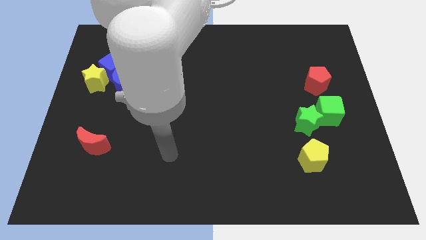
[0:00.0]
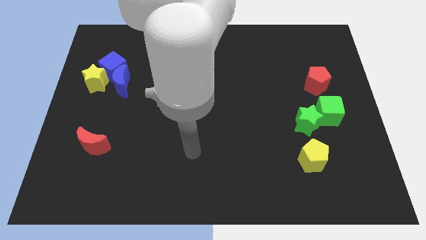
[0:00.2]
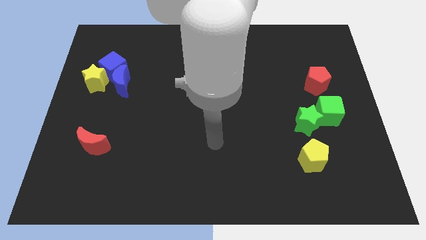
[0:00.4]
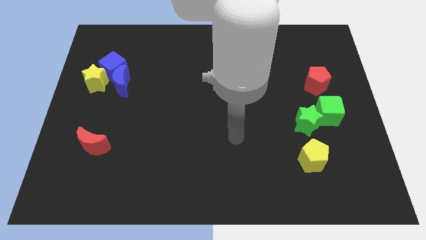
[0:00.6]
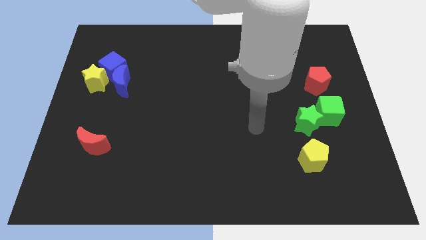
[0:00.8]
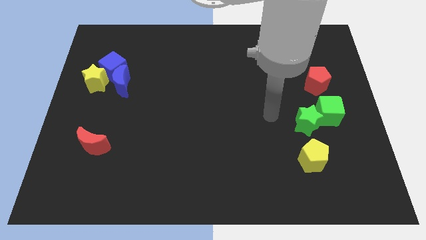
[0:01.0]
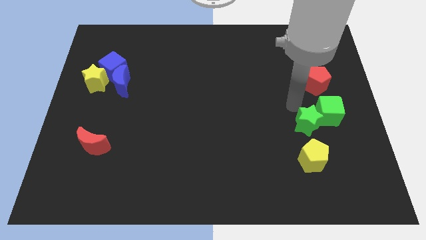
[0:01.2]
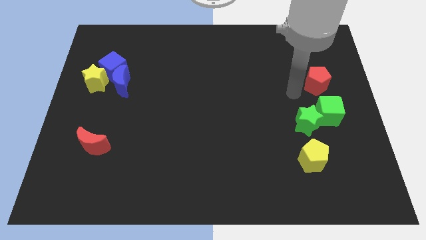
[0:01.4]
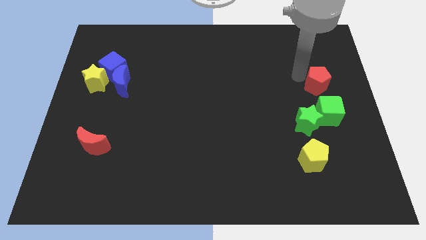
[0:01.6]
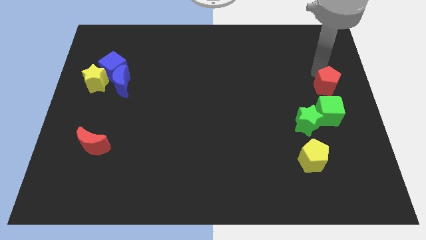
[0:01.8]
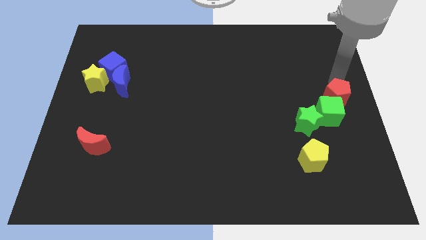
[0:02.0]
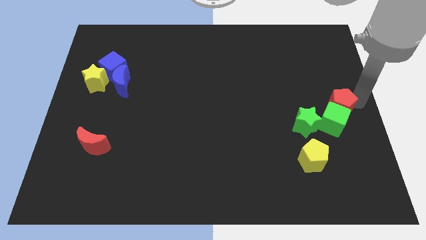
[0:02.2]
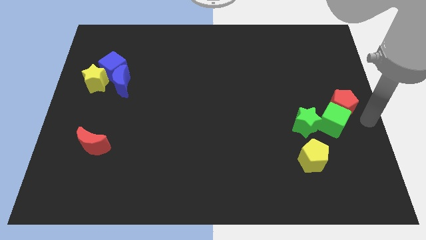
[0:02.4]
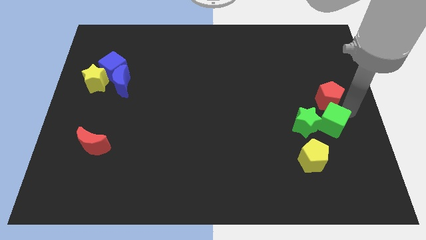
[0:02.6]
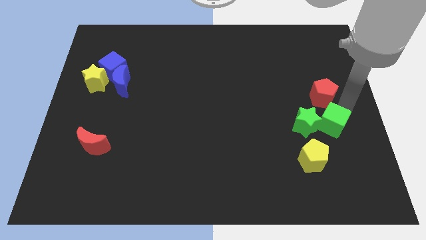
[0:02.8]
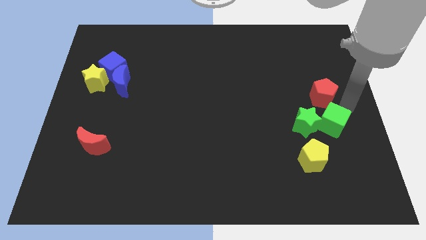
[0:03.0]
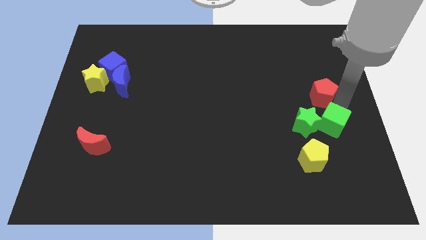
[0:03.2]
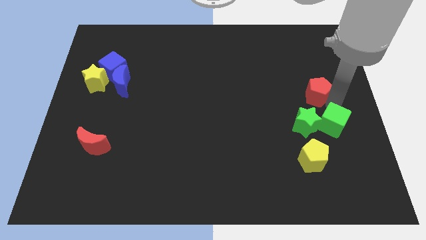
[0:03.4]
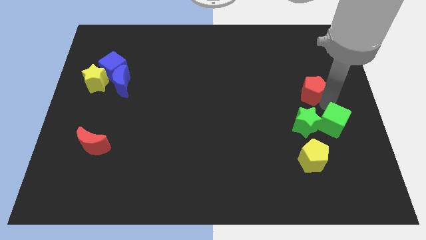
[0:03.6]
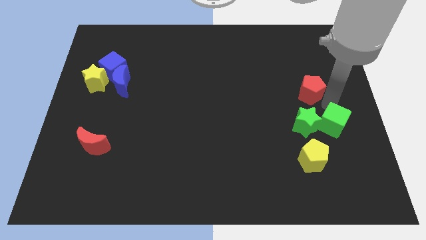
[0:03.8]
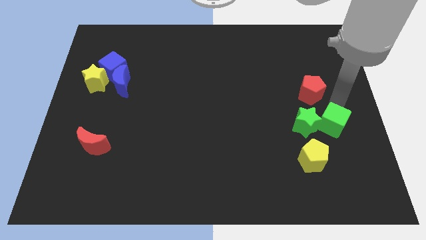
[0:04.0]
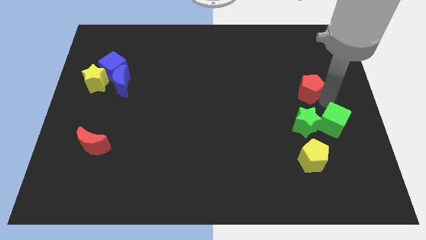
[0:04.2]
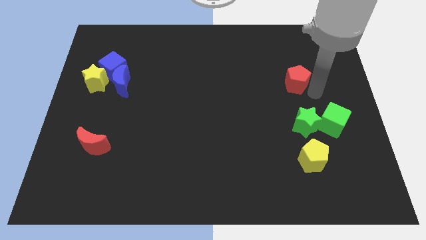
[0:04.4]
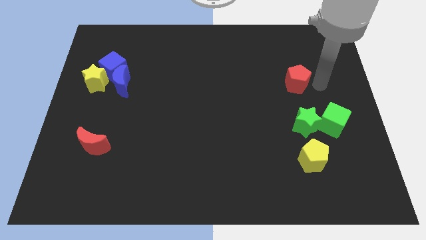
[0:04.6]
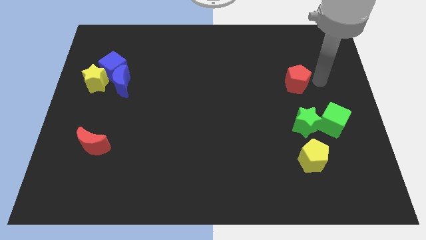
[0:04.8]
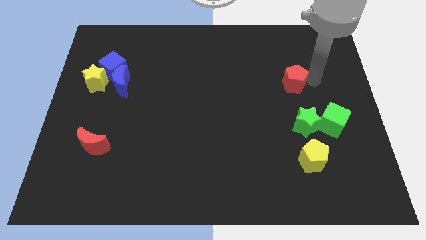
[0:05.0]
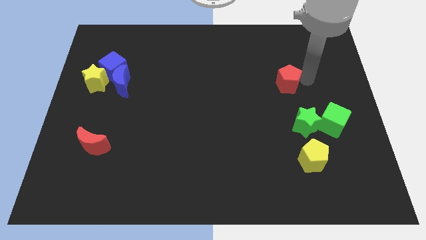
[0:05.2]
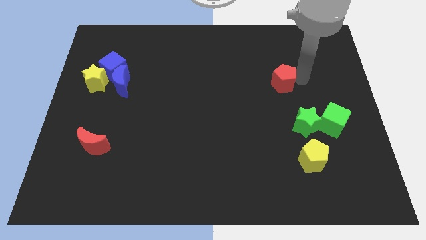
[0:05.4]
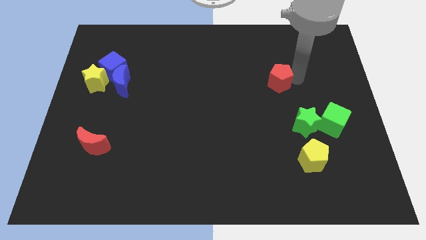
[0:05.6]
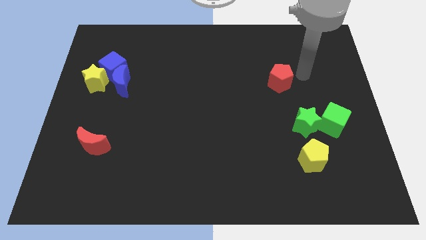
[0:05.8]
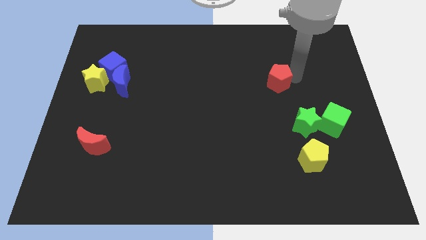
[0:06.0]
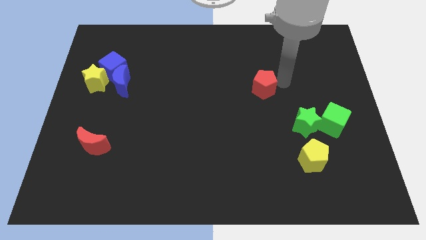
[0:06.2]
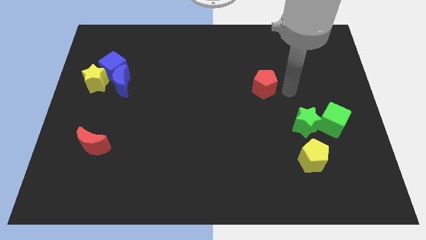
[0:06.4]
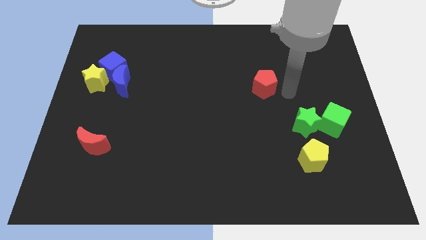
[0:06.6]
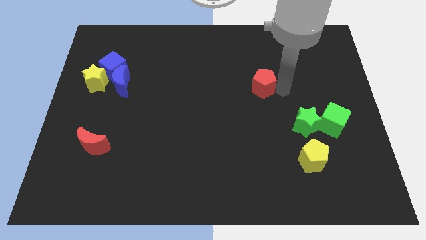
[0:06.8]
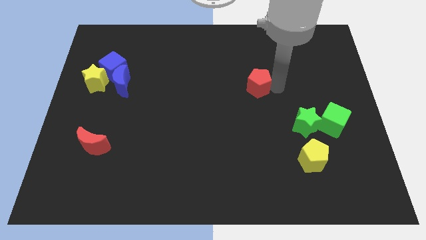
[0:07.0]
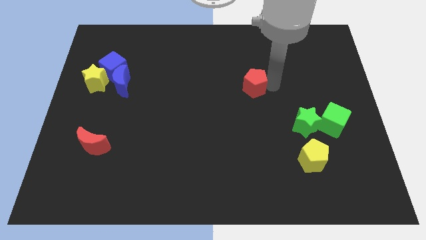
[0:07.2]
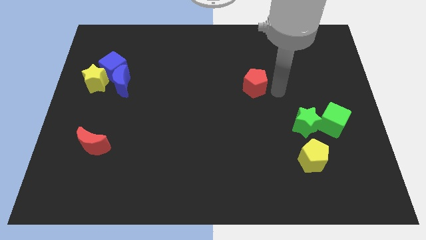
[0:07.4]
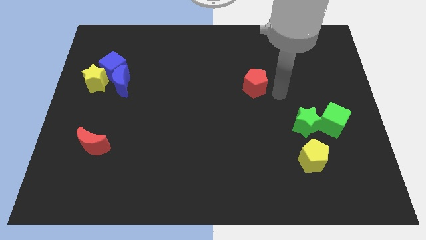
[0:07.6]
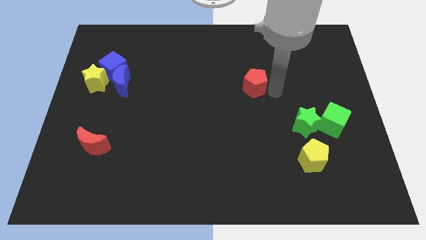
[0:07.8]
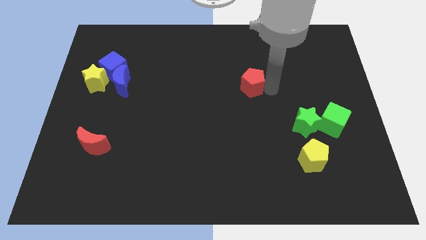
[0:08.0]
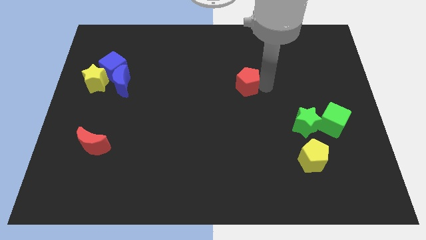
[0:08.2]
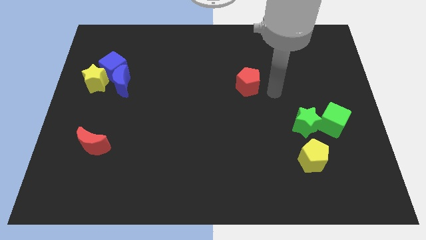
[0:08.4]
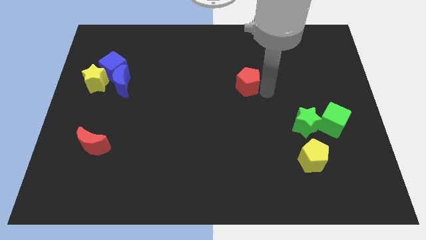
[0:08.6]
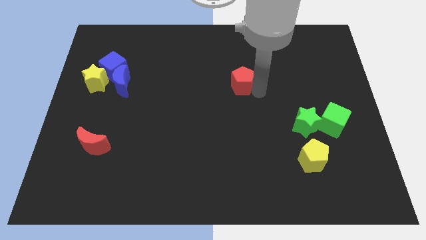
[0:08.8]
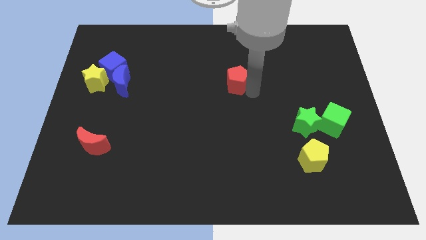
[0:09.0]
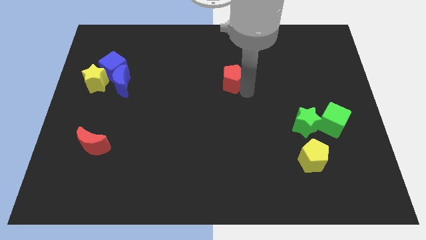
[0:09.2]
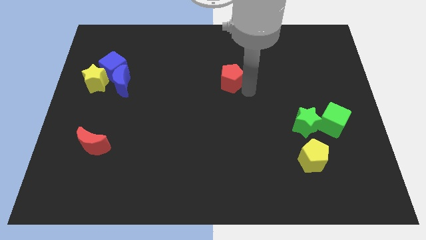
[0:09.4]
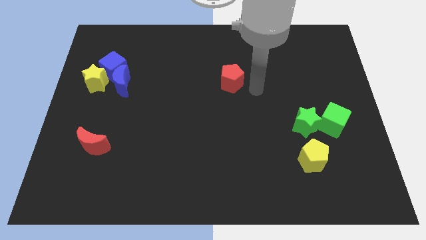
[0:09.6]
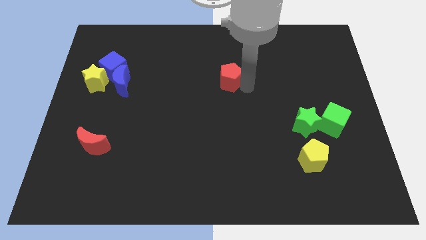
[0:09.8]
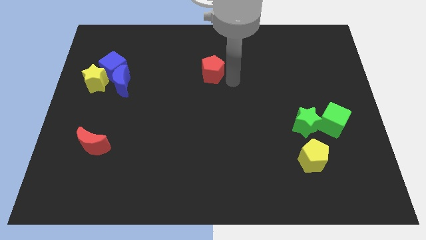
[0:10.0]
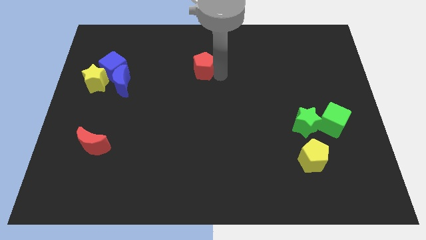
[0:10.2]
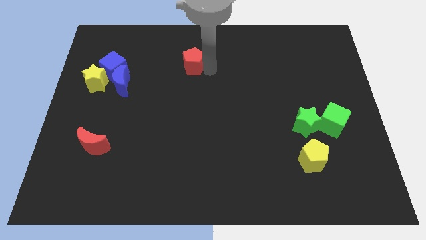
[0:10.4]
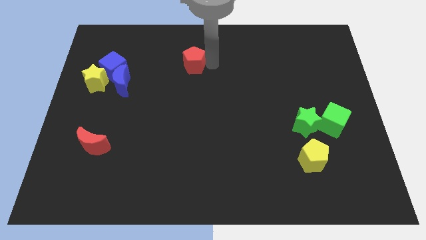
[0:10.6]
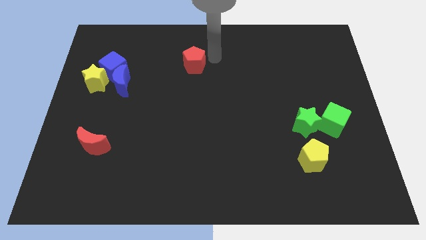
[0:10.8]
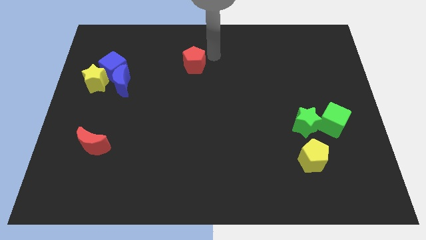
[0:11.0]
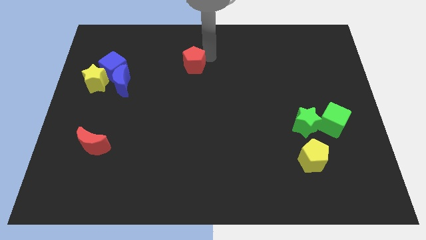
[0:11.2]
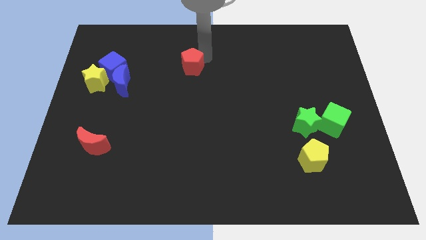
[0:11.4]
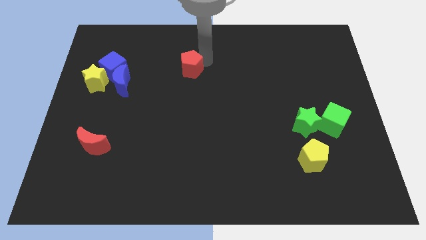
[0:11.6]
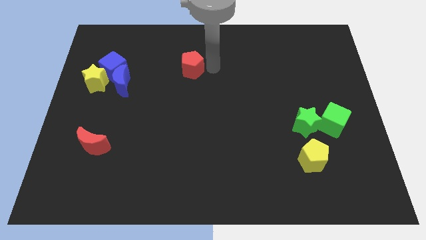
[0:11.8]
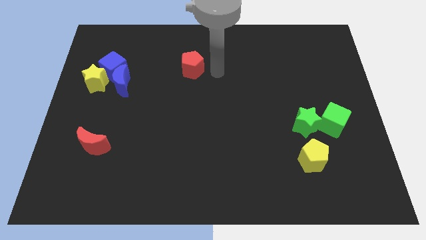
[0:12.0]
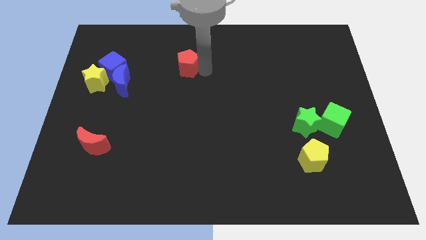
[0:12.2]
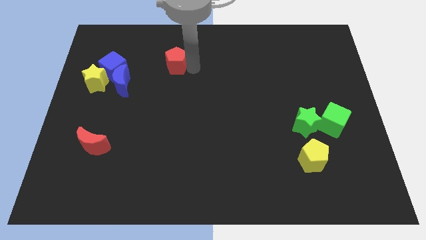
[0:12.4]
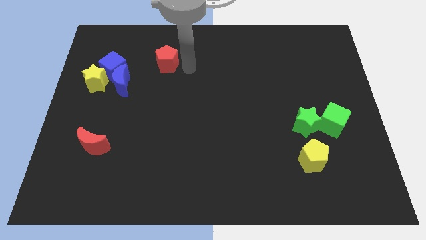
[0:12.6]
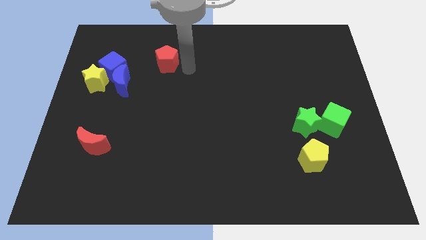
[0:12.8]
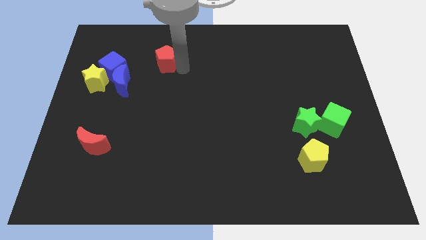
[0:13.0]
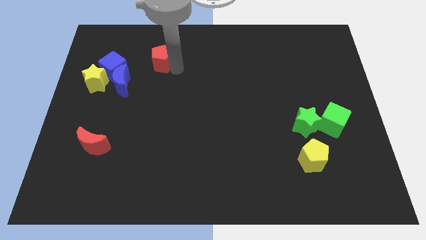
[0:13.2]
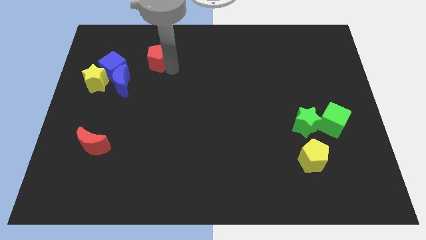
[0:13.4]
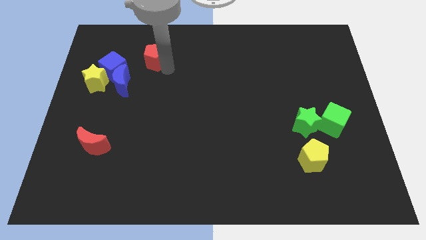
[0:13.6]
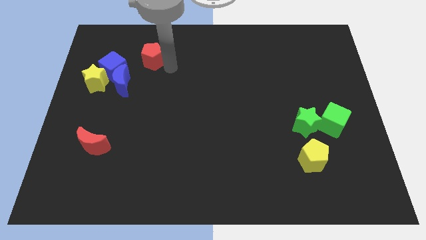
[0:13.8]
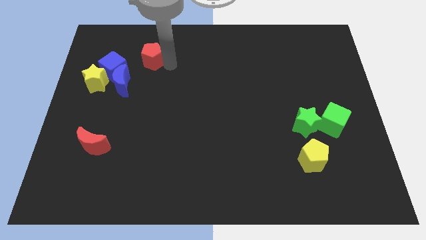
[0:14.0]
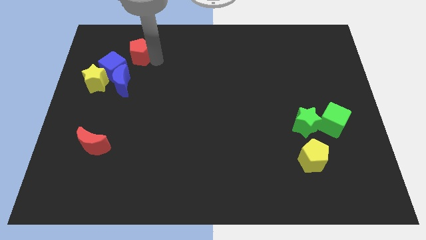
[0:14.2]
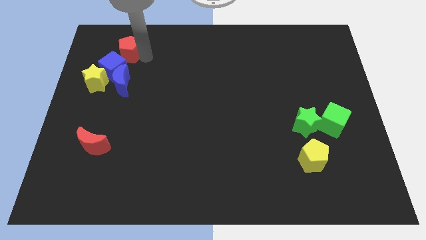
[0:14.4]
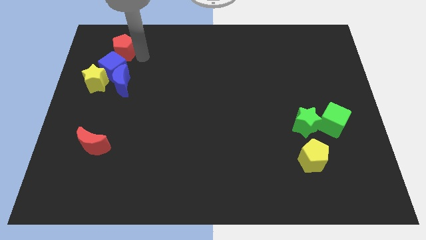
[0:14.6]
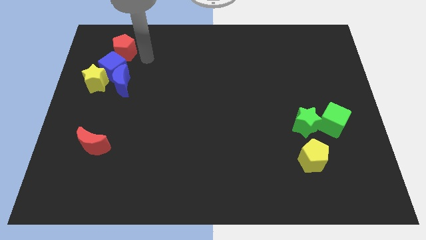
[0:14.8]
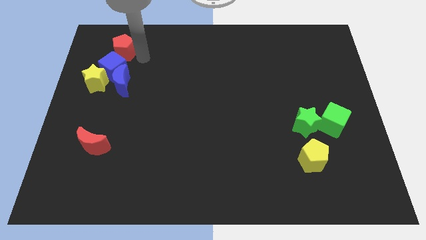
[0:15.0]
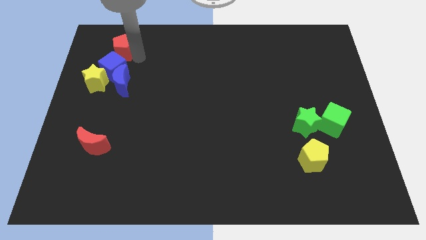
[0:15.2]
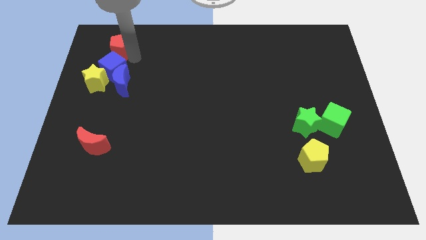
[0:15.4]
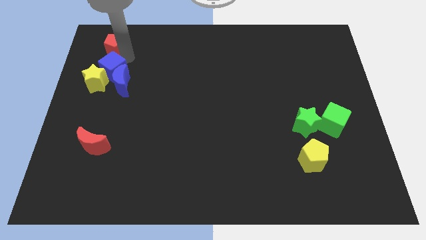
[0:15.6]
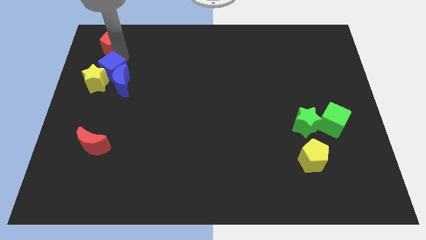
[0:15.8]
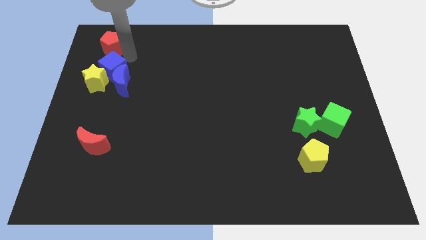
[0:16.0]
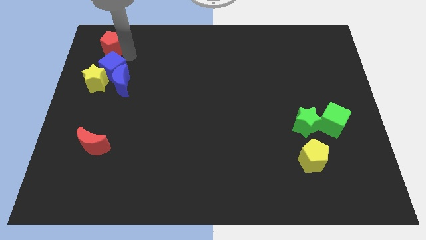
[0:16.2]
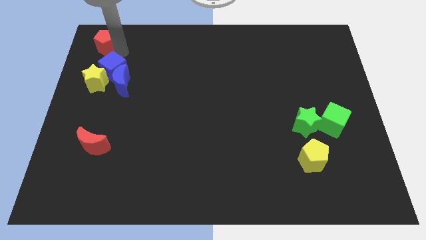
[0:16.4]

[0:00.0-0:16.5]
put the red pentagon to the top left of the board
